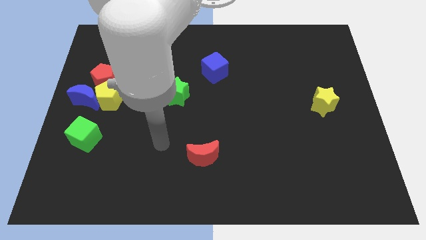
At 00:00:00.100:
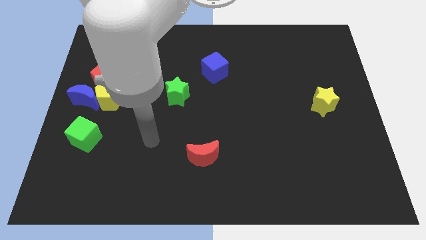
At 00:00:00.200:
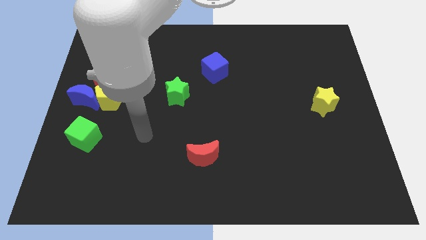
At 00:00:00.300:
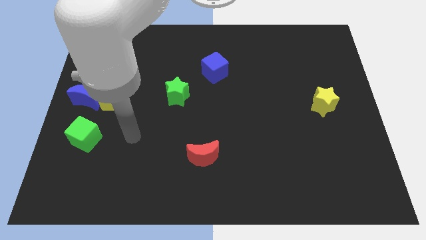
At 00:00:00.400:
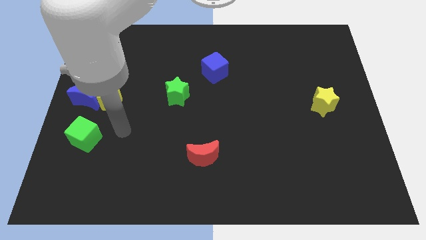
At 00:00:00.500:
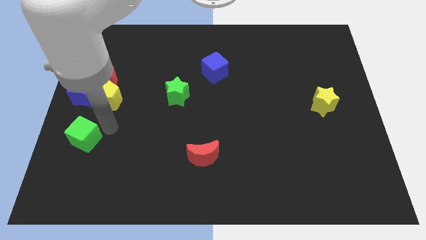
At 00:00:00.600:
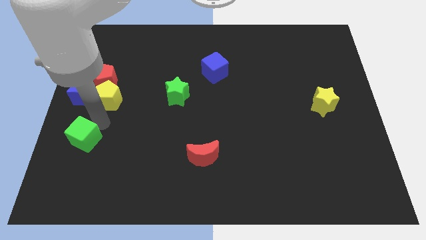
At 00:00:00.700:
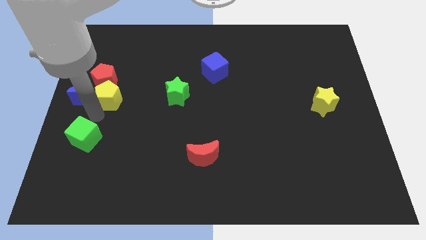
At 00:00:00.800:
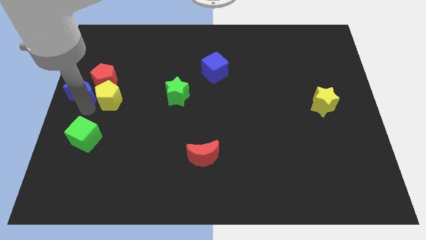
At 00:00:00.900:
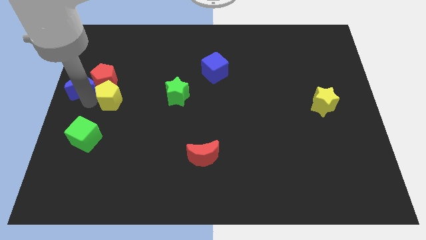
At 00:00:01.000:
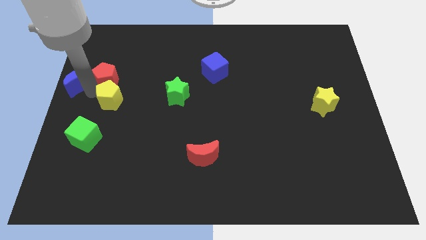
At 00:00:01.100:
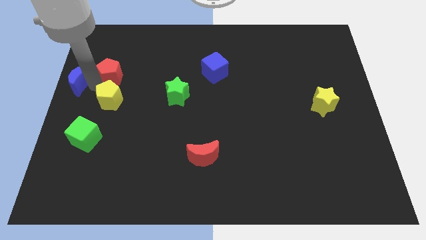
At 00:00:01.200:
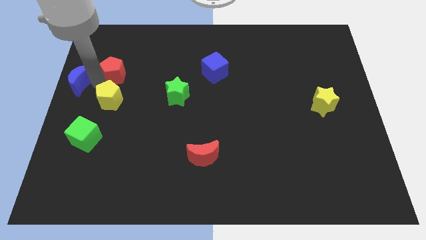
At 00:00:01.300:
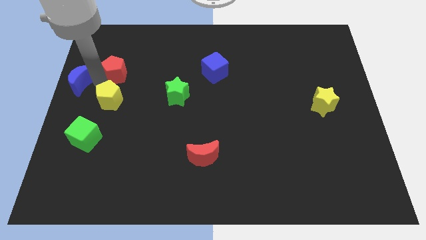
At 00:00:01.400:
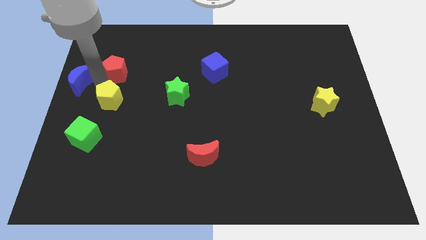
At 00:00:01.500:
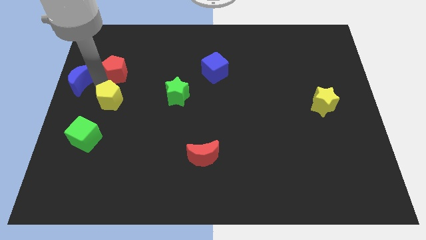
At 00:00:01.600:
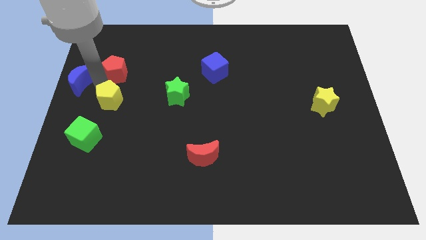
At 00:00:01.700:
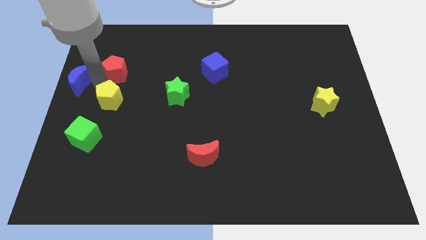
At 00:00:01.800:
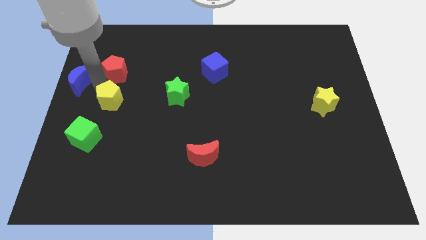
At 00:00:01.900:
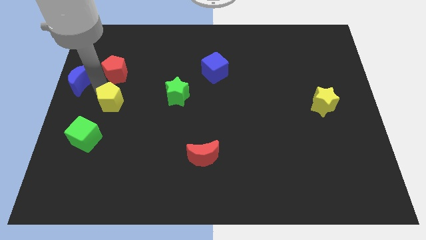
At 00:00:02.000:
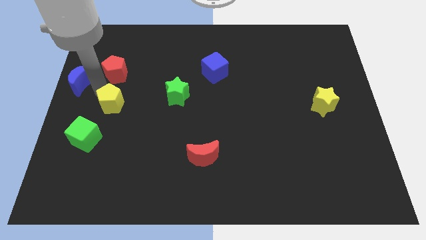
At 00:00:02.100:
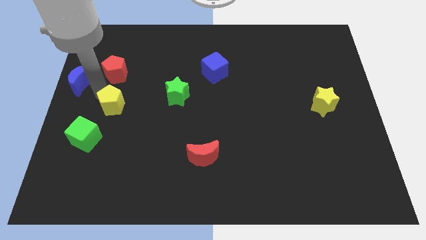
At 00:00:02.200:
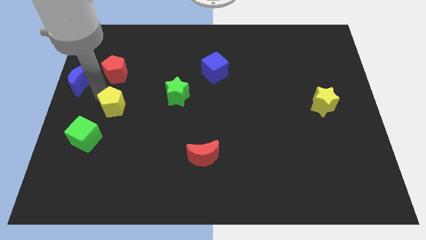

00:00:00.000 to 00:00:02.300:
separate the yellow pentagon from the blue moon and red pentagon

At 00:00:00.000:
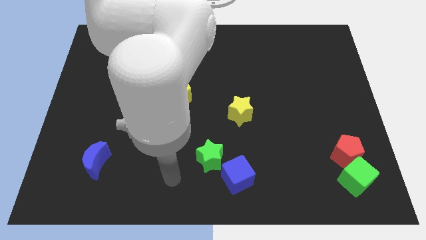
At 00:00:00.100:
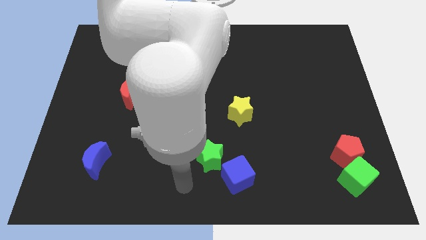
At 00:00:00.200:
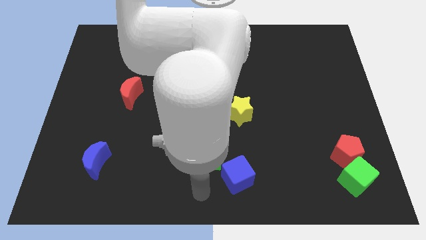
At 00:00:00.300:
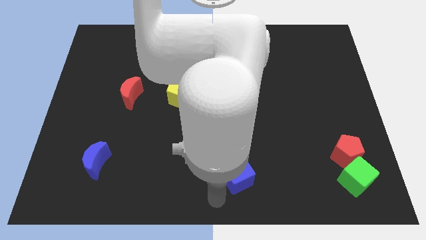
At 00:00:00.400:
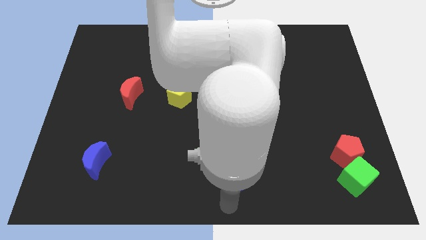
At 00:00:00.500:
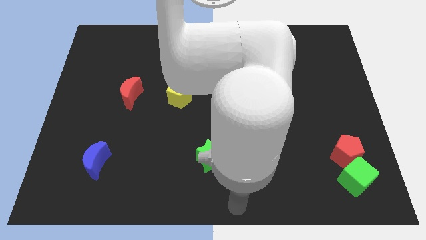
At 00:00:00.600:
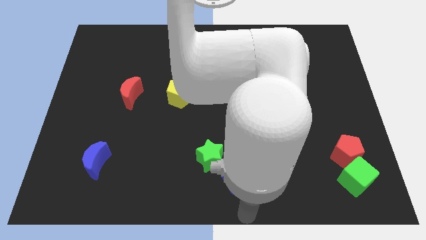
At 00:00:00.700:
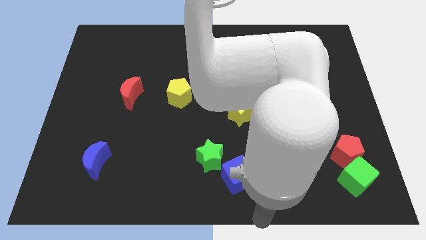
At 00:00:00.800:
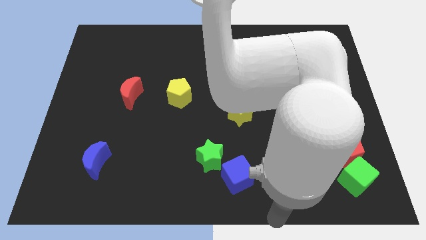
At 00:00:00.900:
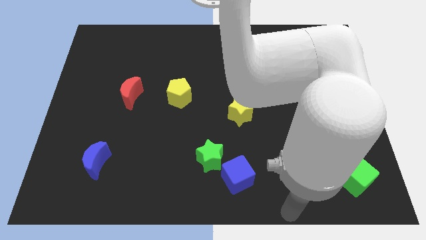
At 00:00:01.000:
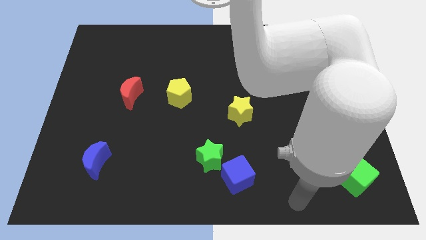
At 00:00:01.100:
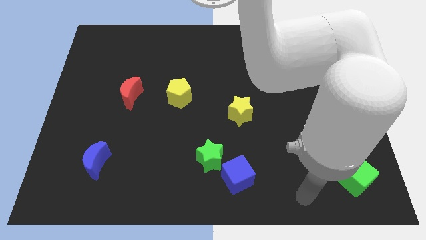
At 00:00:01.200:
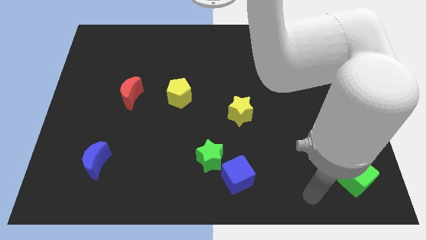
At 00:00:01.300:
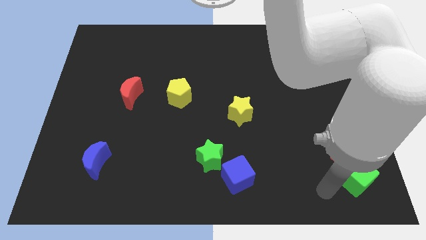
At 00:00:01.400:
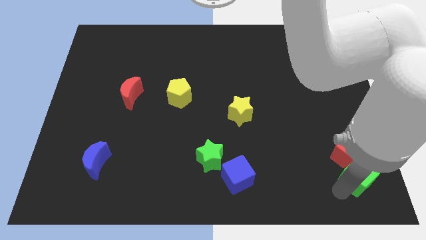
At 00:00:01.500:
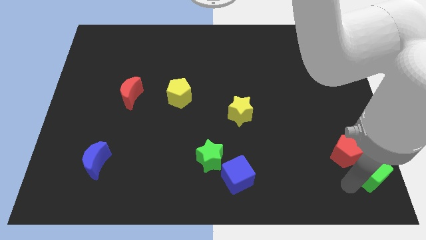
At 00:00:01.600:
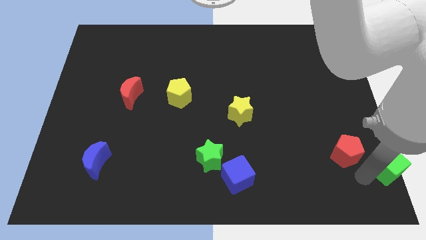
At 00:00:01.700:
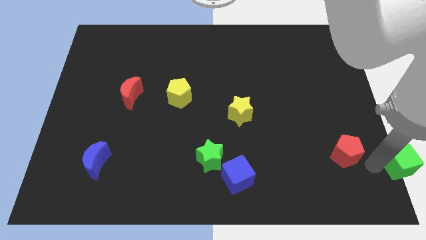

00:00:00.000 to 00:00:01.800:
separate the red pentagon from the green cube

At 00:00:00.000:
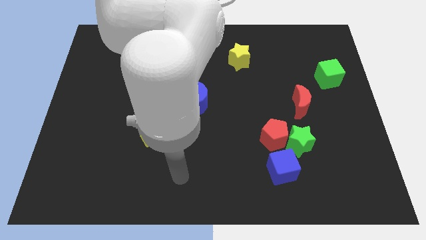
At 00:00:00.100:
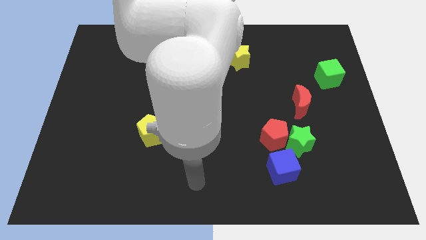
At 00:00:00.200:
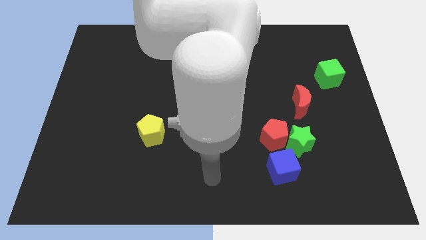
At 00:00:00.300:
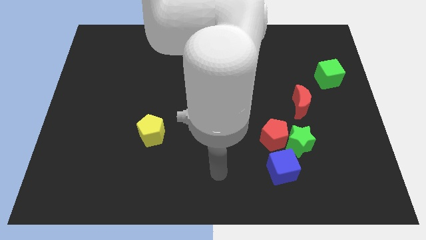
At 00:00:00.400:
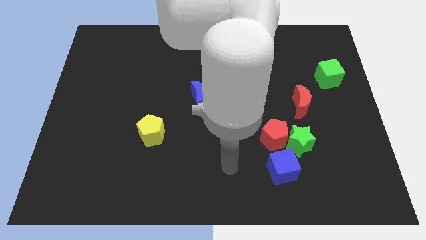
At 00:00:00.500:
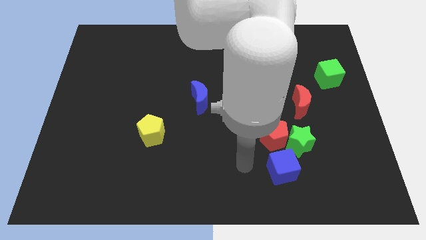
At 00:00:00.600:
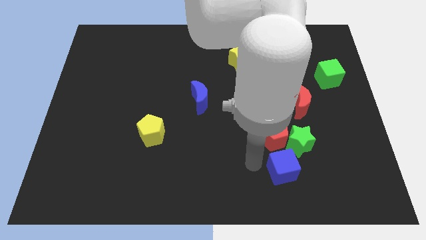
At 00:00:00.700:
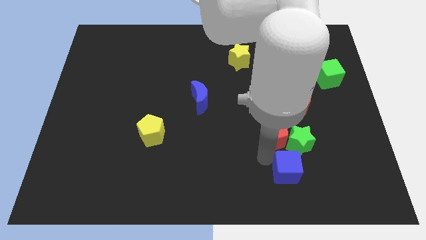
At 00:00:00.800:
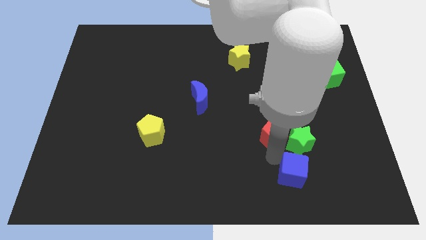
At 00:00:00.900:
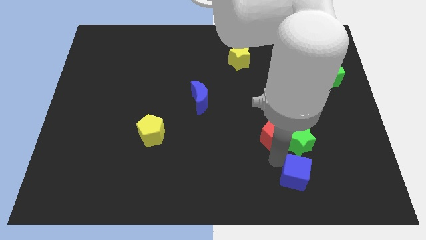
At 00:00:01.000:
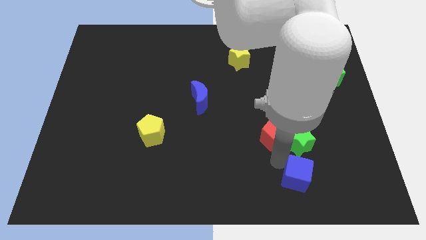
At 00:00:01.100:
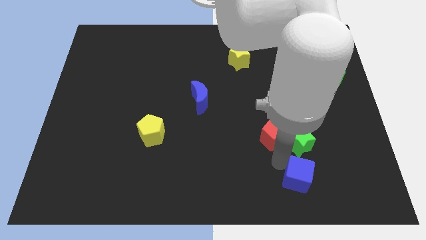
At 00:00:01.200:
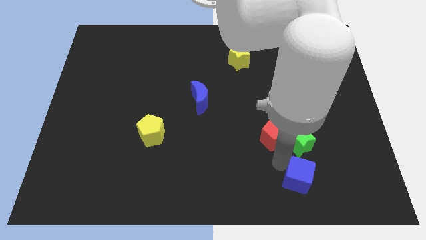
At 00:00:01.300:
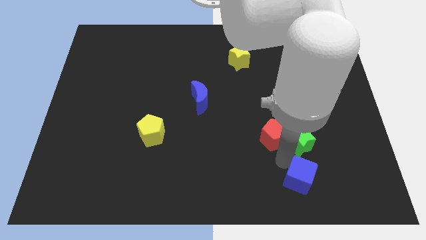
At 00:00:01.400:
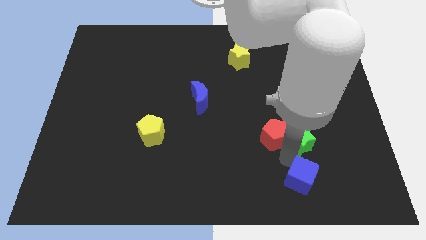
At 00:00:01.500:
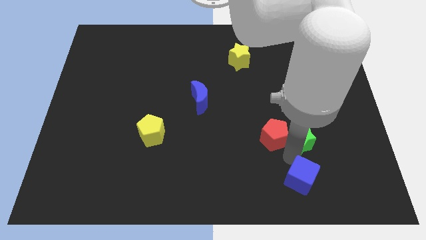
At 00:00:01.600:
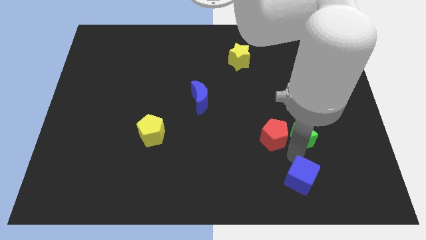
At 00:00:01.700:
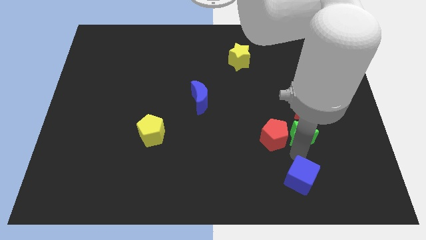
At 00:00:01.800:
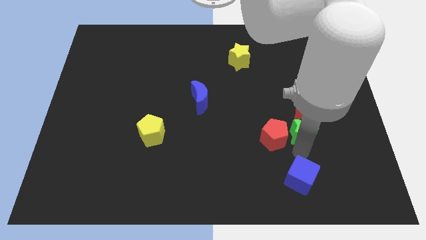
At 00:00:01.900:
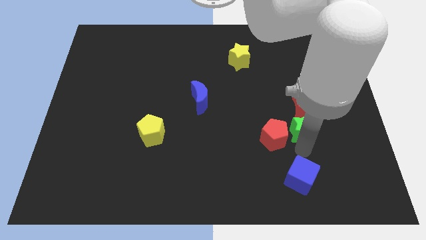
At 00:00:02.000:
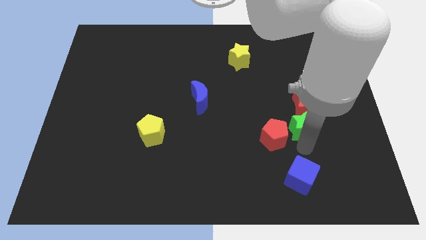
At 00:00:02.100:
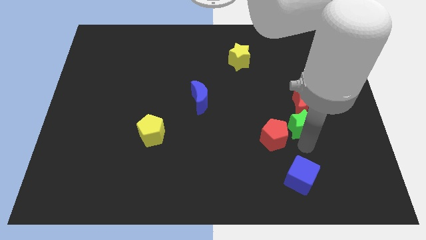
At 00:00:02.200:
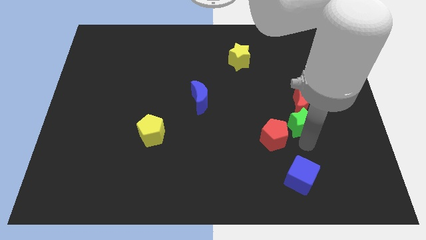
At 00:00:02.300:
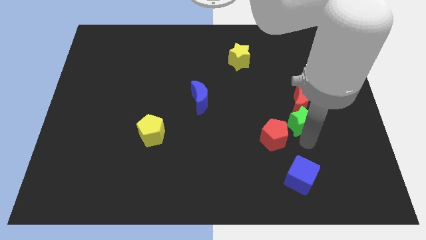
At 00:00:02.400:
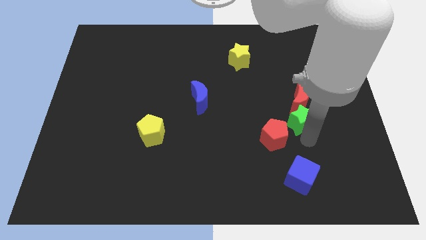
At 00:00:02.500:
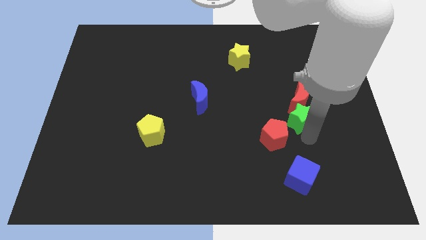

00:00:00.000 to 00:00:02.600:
pull the green star apart from the red pentagon and blue cube

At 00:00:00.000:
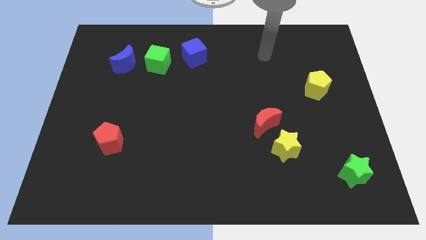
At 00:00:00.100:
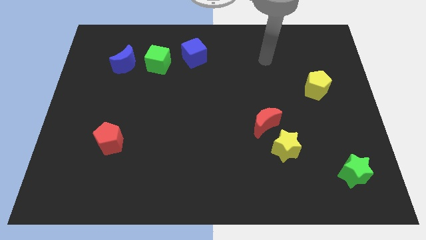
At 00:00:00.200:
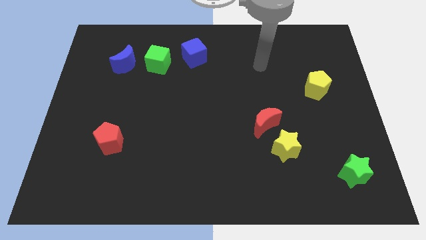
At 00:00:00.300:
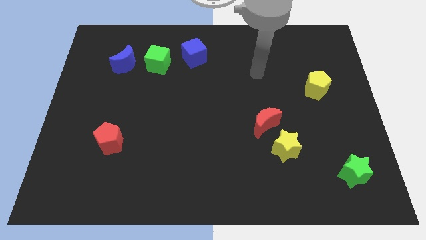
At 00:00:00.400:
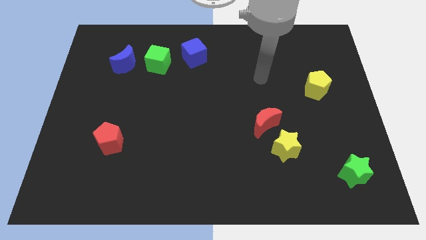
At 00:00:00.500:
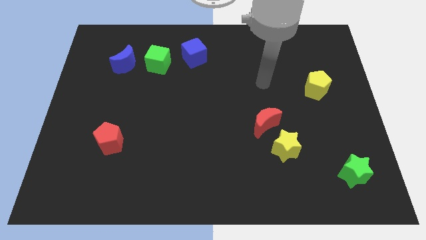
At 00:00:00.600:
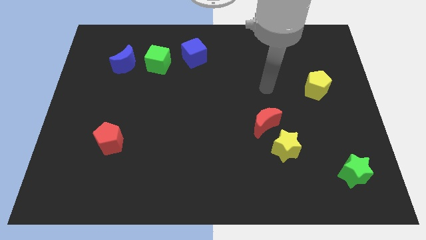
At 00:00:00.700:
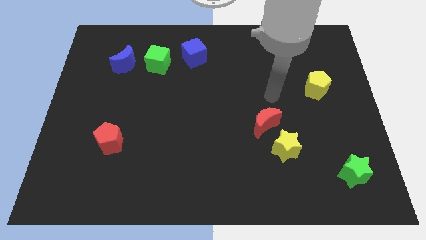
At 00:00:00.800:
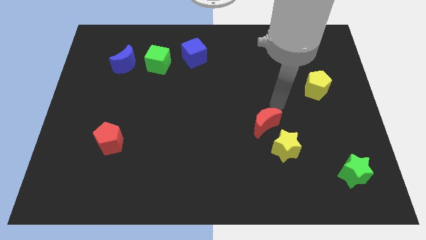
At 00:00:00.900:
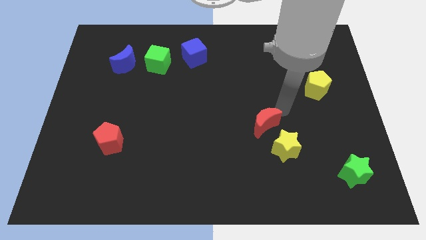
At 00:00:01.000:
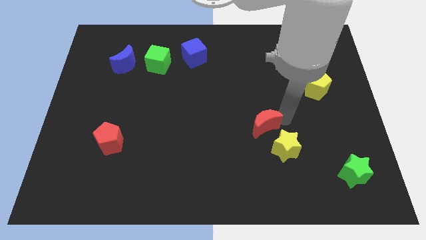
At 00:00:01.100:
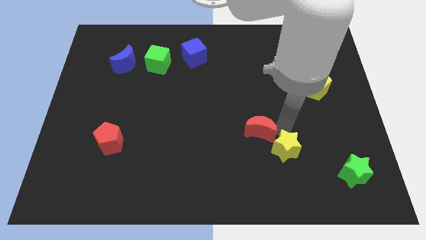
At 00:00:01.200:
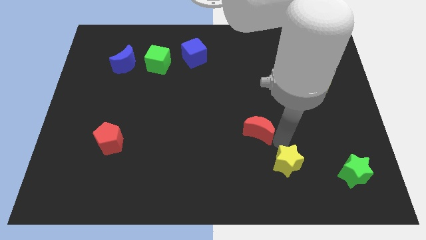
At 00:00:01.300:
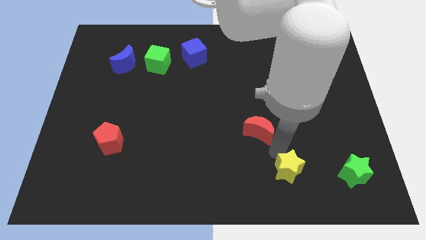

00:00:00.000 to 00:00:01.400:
pull the red moon apart from the yellow star

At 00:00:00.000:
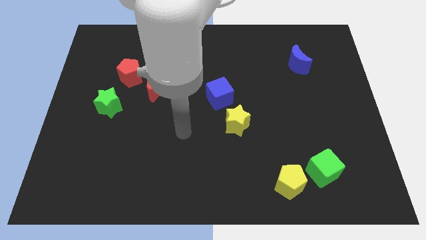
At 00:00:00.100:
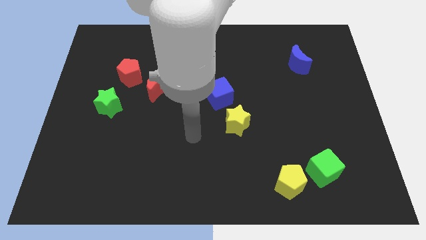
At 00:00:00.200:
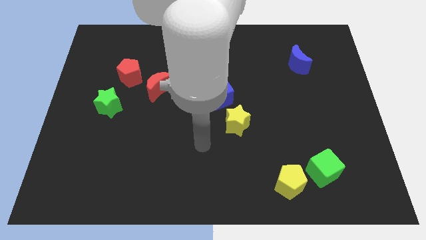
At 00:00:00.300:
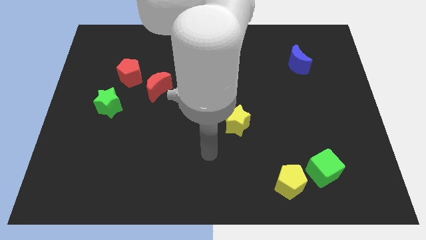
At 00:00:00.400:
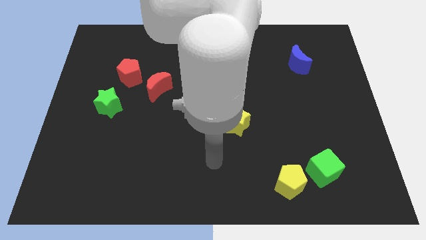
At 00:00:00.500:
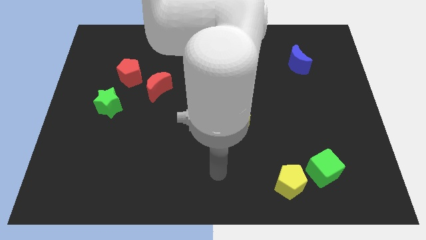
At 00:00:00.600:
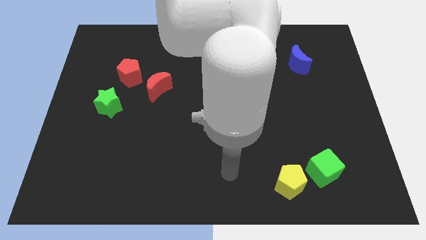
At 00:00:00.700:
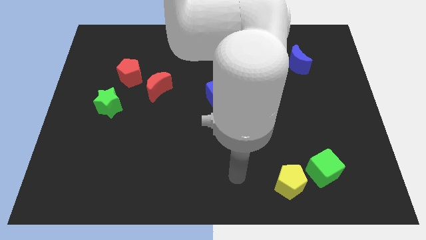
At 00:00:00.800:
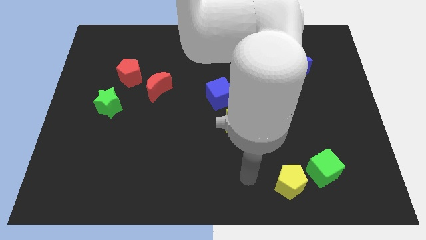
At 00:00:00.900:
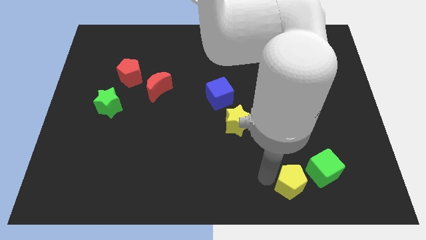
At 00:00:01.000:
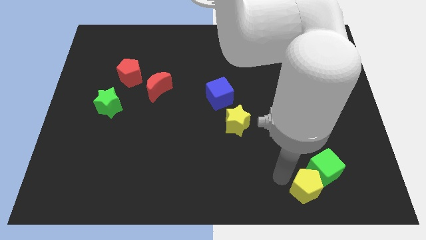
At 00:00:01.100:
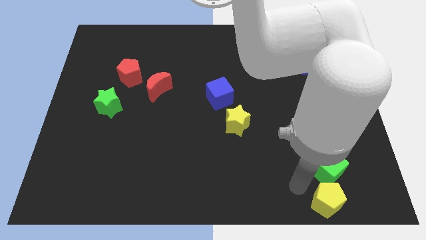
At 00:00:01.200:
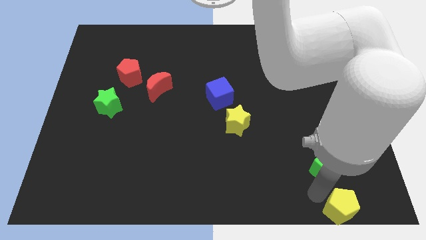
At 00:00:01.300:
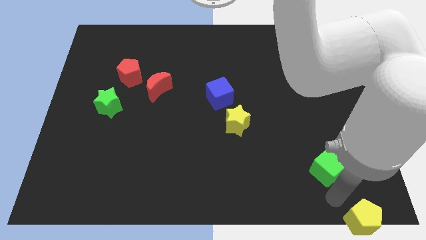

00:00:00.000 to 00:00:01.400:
separate the green cube from the yellow pentagon
